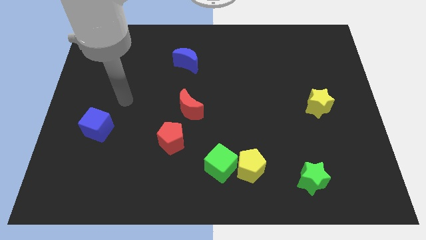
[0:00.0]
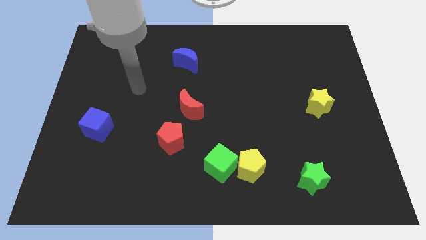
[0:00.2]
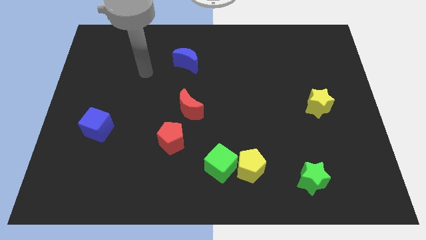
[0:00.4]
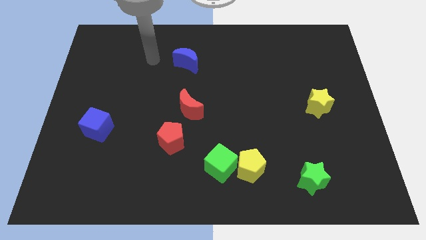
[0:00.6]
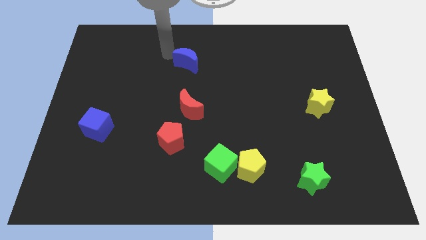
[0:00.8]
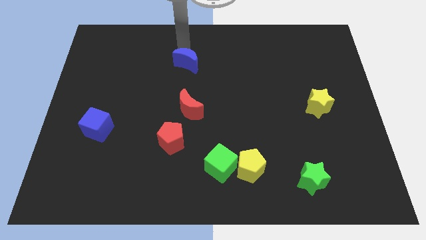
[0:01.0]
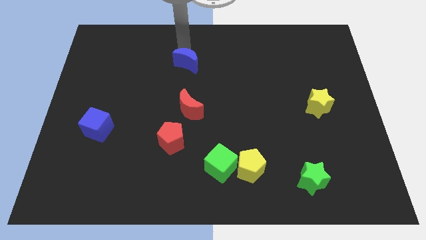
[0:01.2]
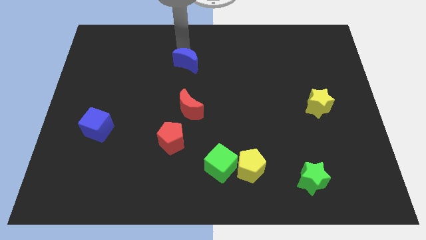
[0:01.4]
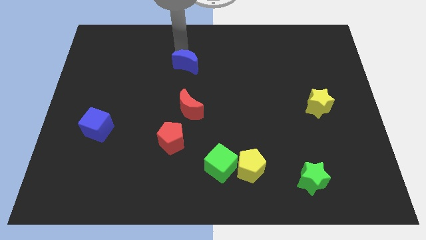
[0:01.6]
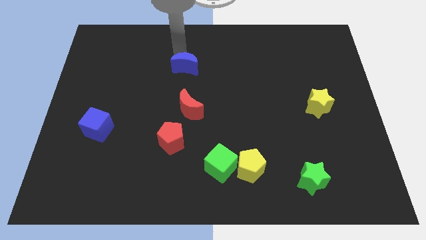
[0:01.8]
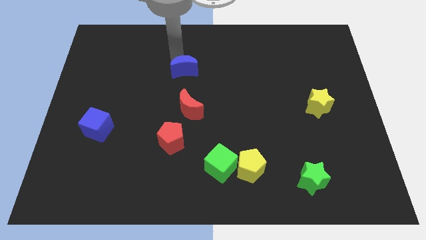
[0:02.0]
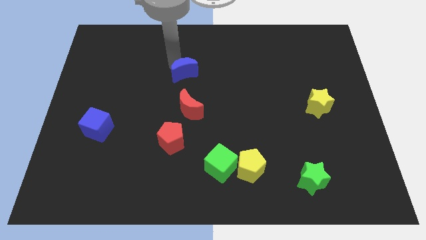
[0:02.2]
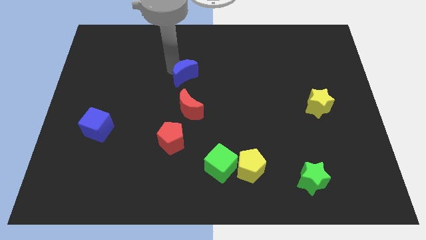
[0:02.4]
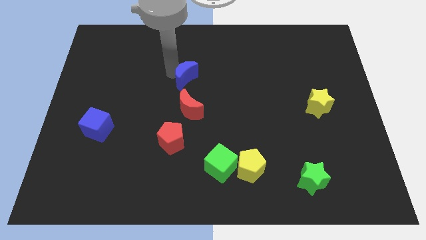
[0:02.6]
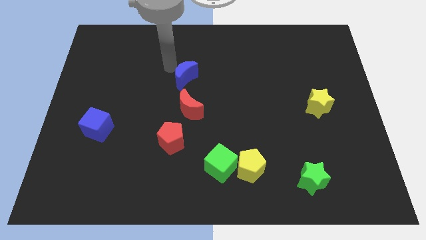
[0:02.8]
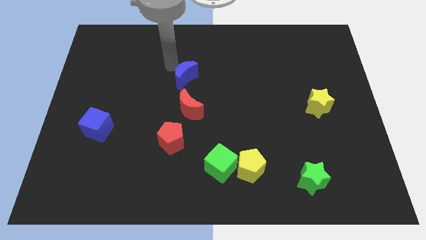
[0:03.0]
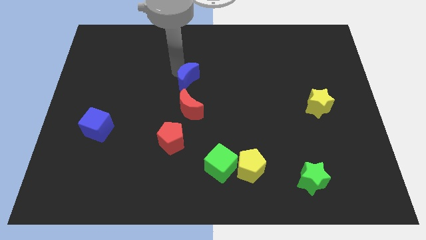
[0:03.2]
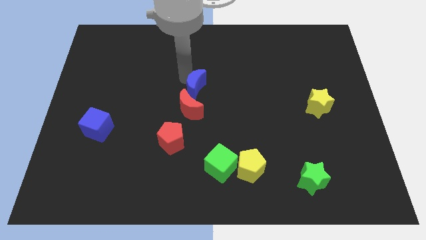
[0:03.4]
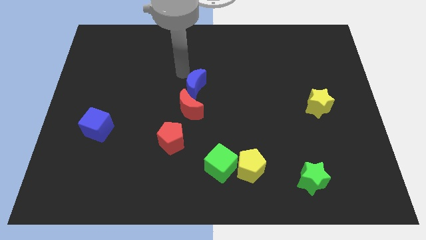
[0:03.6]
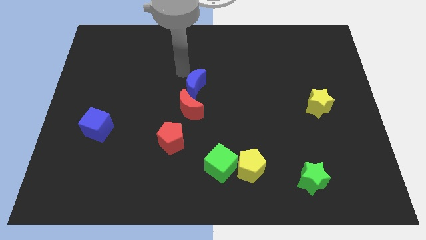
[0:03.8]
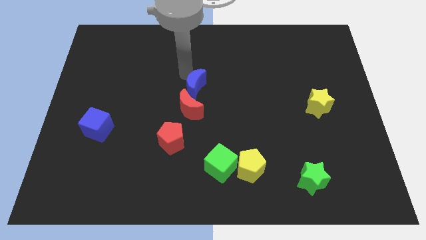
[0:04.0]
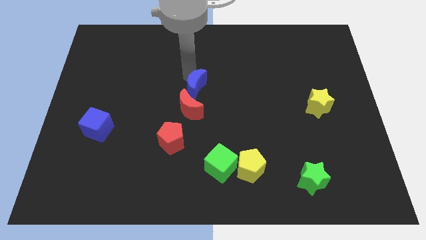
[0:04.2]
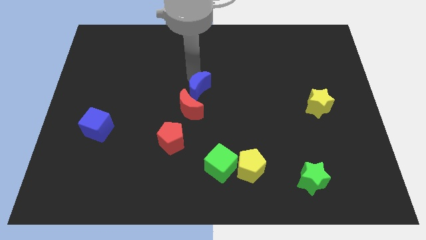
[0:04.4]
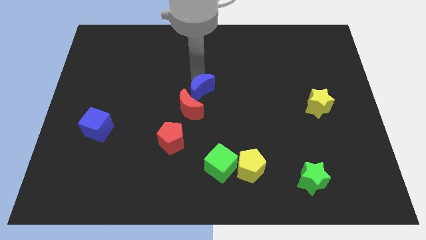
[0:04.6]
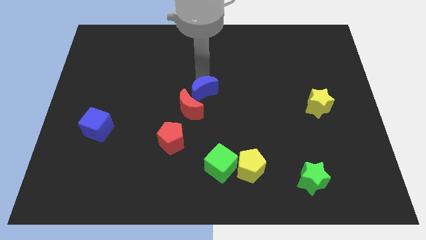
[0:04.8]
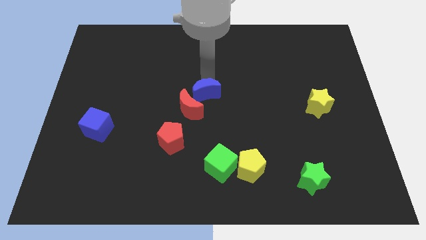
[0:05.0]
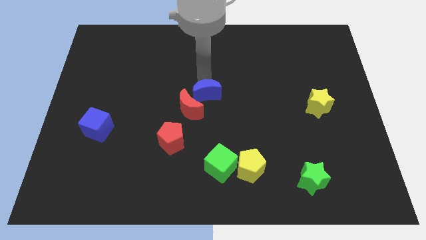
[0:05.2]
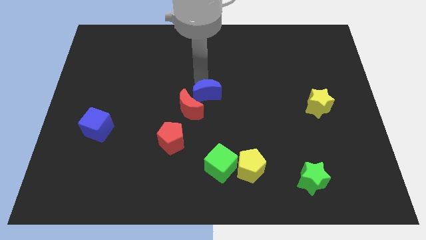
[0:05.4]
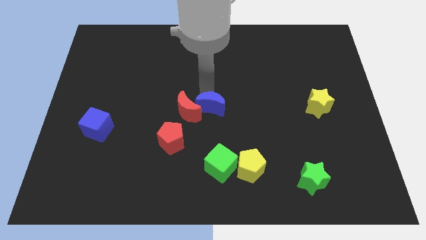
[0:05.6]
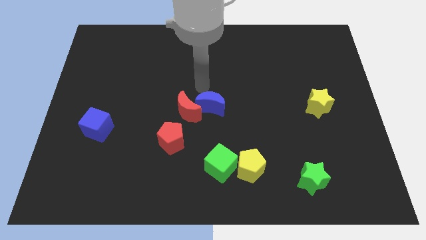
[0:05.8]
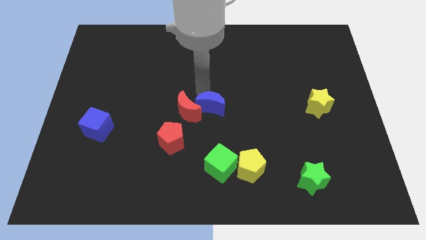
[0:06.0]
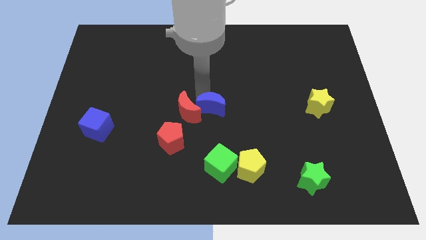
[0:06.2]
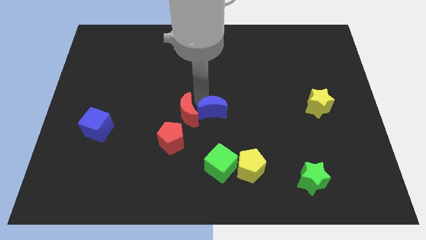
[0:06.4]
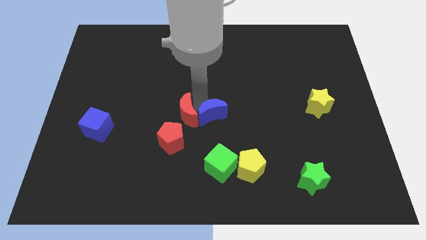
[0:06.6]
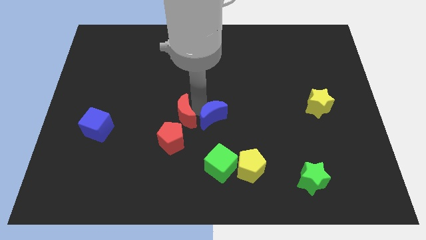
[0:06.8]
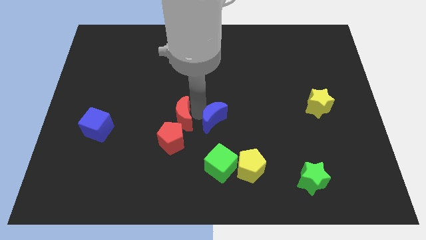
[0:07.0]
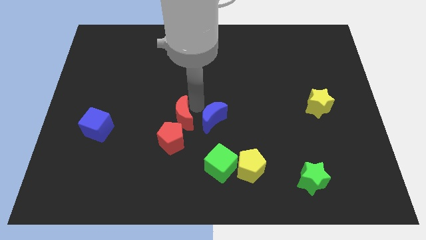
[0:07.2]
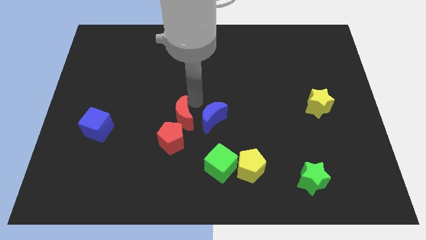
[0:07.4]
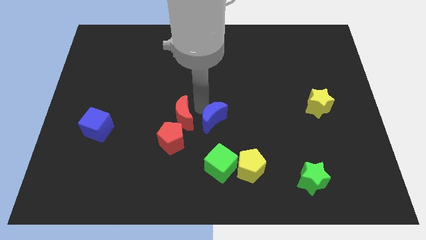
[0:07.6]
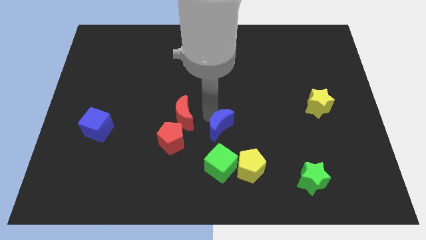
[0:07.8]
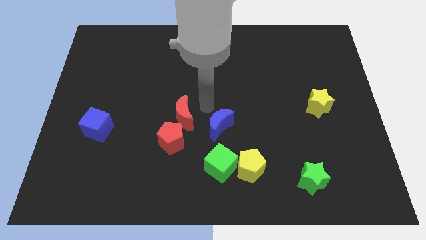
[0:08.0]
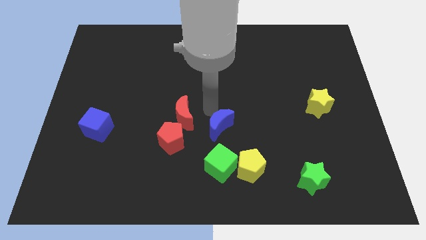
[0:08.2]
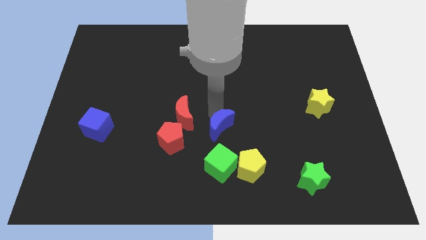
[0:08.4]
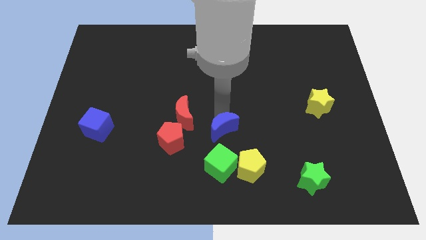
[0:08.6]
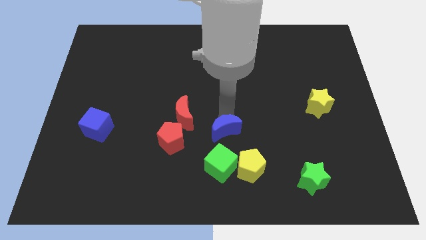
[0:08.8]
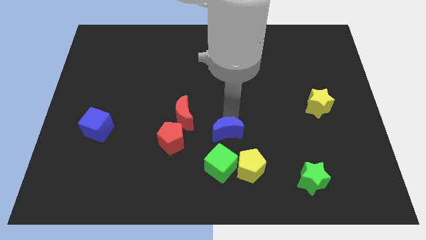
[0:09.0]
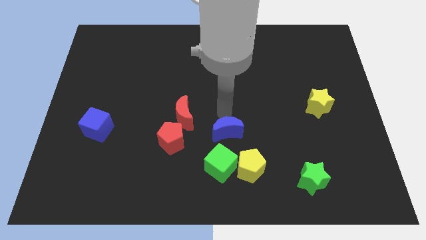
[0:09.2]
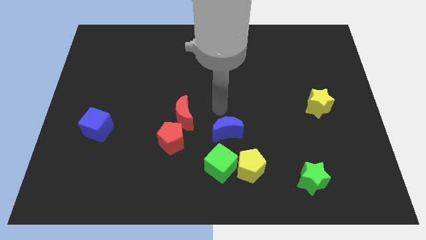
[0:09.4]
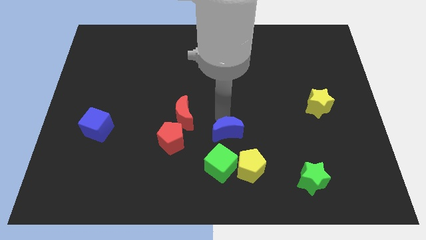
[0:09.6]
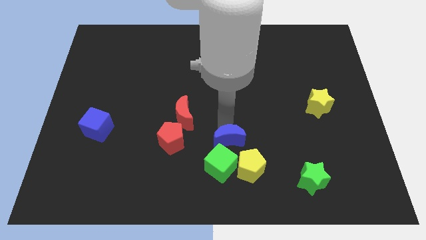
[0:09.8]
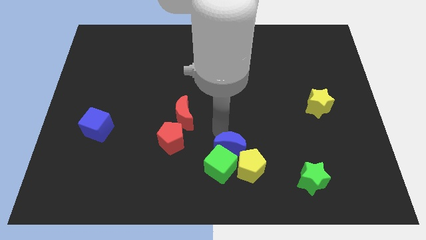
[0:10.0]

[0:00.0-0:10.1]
slide the blue moon towards the yellow pentagon

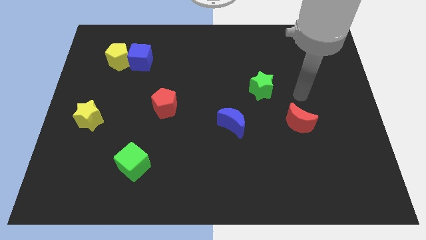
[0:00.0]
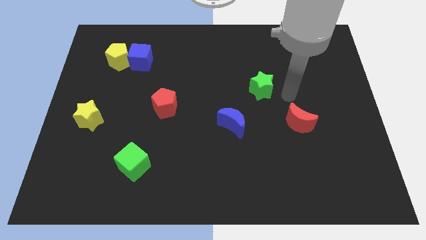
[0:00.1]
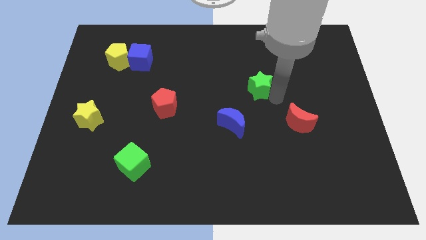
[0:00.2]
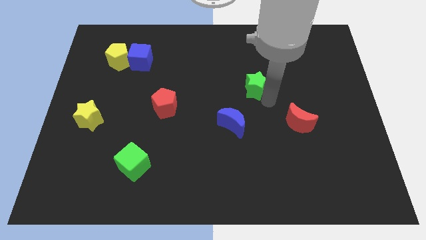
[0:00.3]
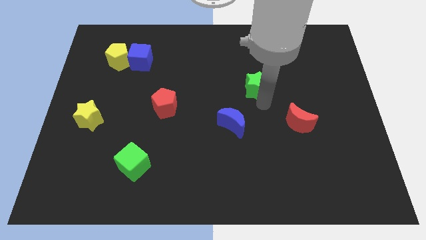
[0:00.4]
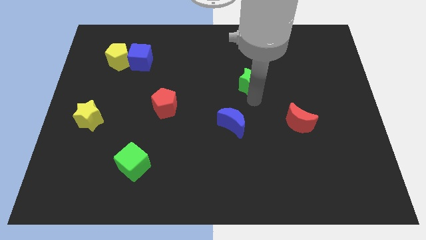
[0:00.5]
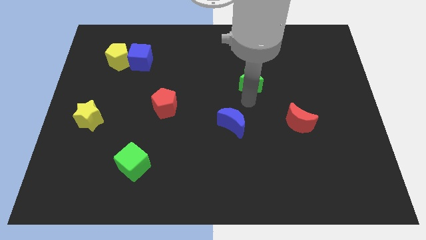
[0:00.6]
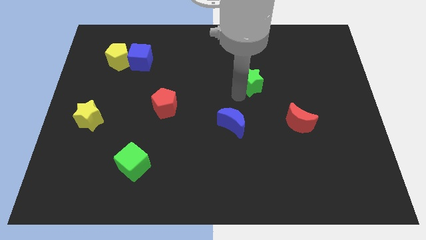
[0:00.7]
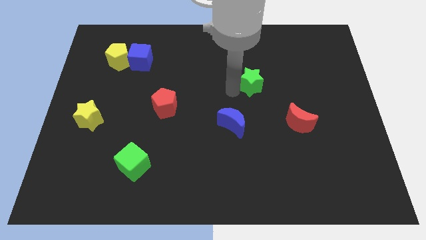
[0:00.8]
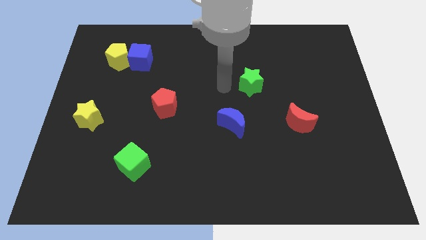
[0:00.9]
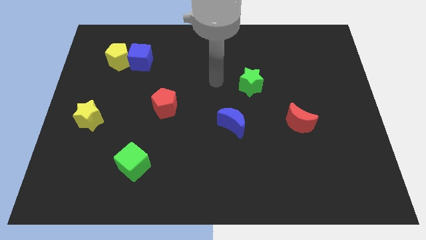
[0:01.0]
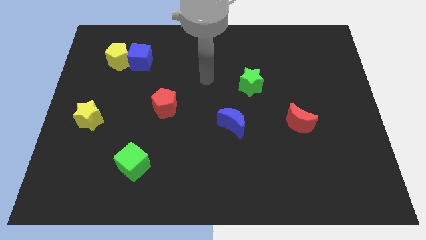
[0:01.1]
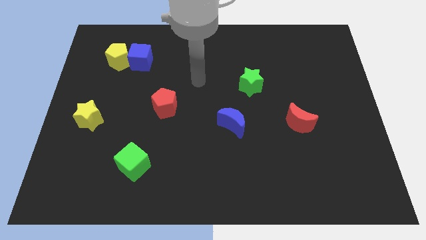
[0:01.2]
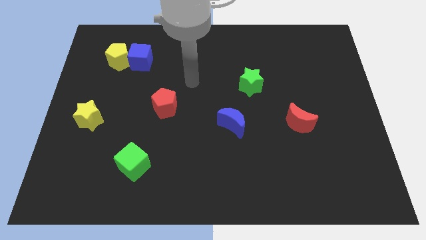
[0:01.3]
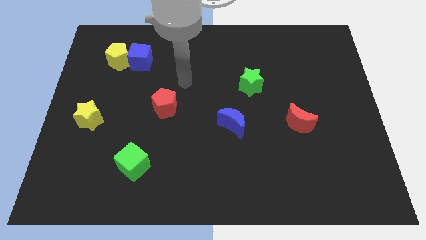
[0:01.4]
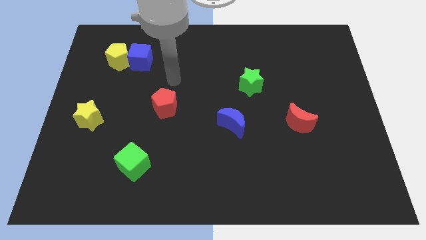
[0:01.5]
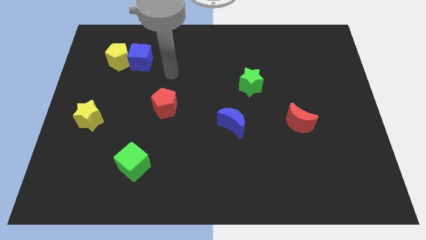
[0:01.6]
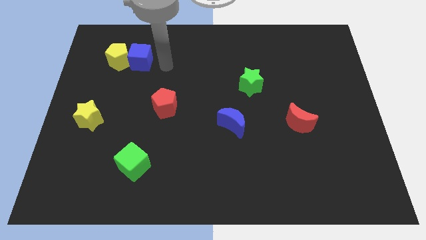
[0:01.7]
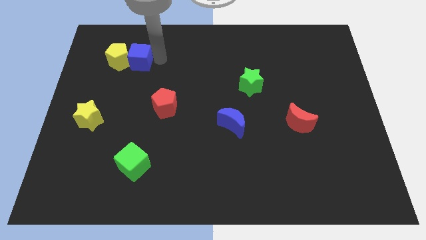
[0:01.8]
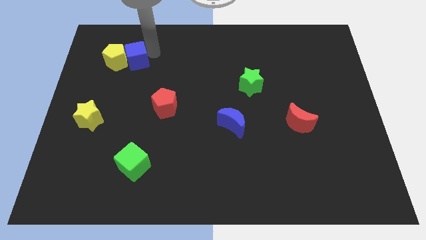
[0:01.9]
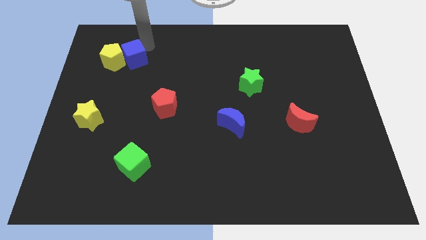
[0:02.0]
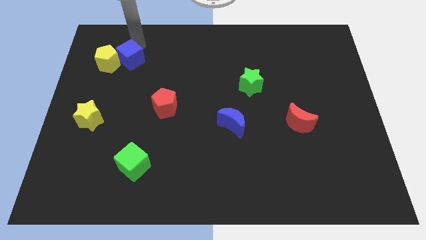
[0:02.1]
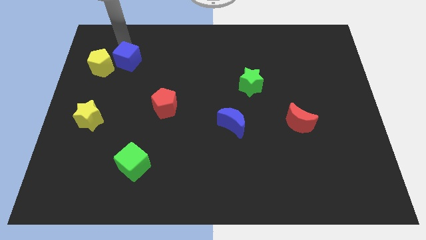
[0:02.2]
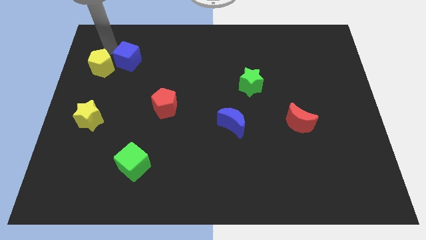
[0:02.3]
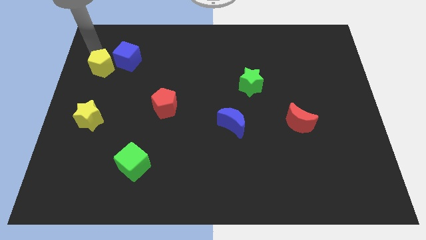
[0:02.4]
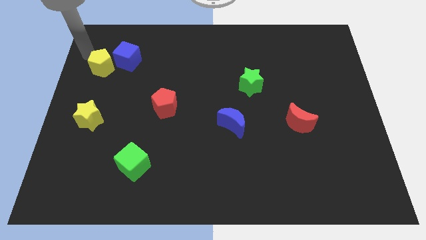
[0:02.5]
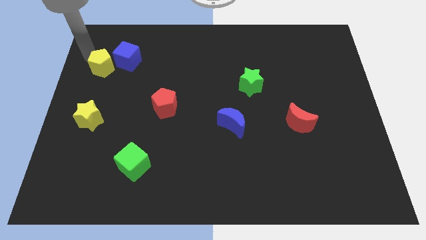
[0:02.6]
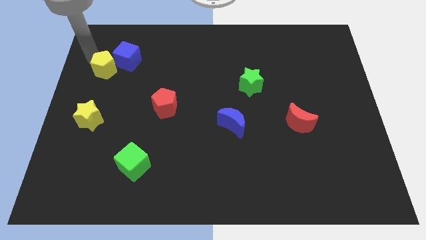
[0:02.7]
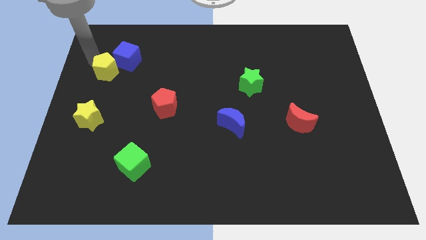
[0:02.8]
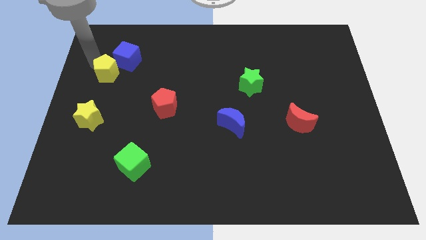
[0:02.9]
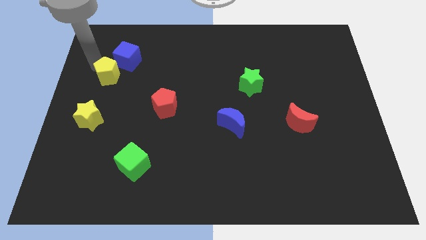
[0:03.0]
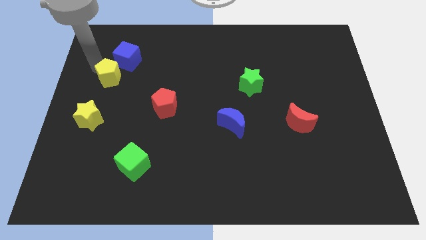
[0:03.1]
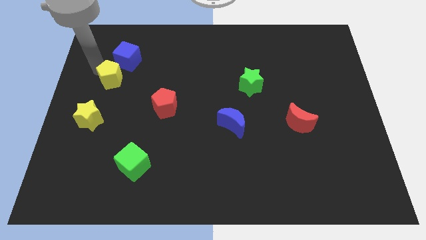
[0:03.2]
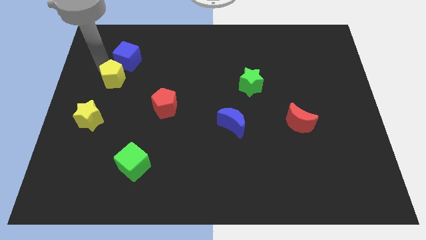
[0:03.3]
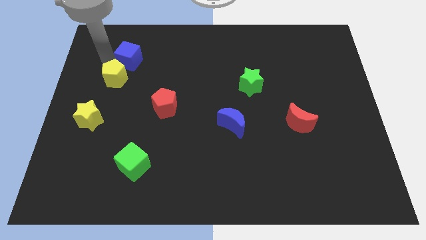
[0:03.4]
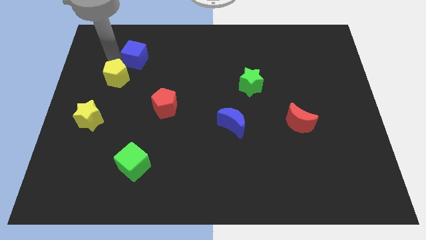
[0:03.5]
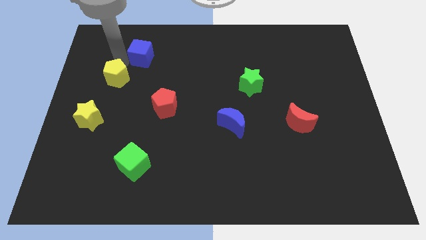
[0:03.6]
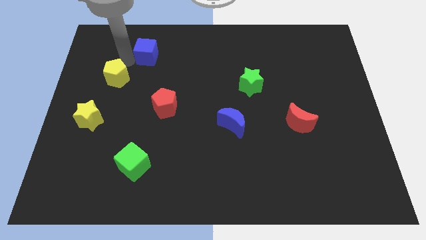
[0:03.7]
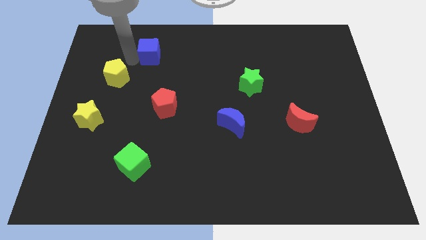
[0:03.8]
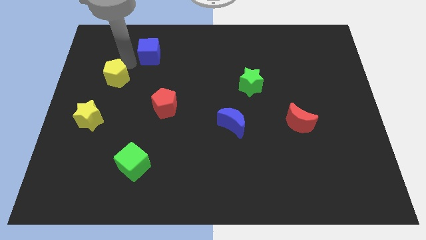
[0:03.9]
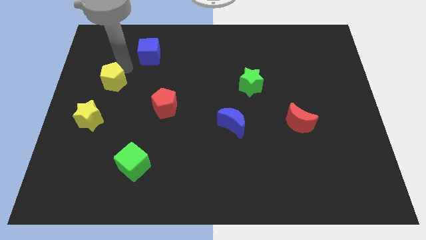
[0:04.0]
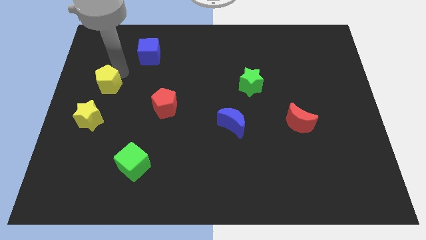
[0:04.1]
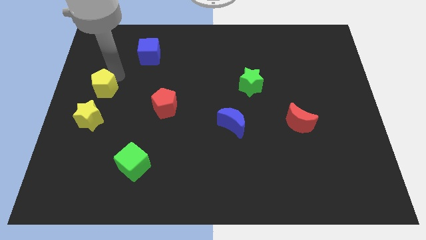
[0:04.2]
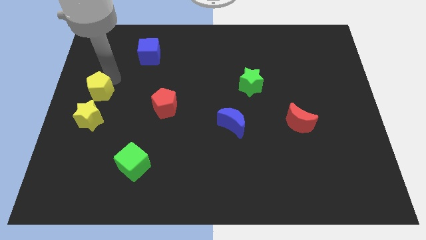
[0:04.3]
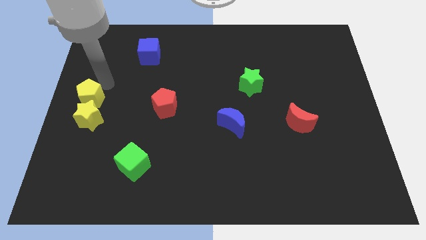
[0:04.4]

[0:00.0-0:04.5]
put the yellow pentagon next to the yellow star
